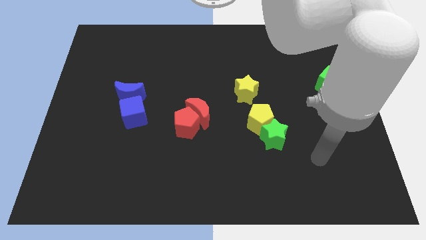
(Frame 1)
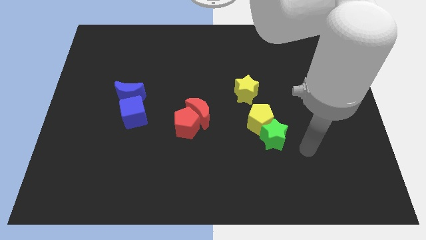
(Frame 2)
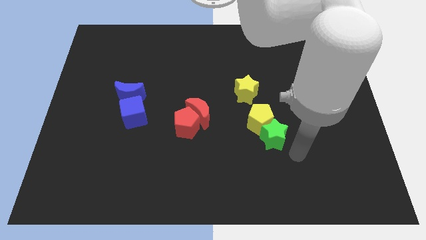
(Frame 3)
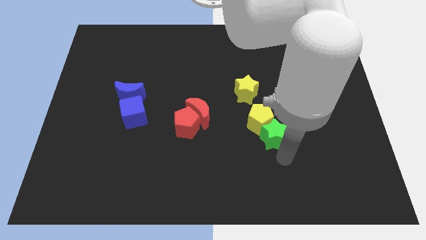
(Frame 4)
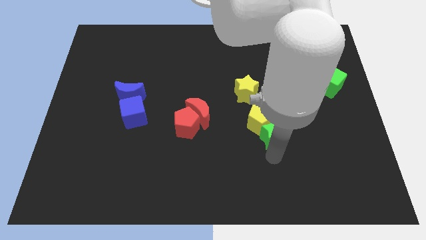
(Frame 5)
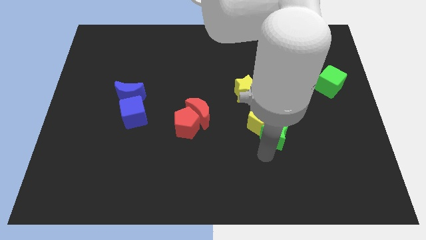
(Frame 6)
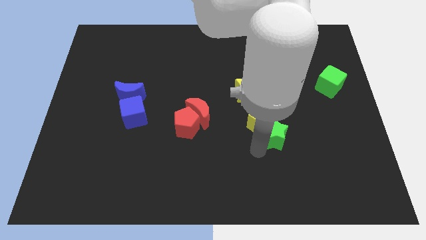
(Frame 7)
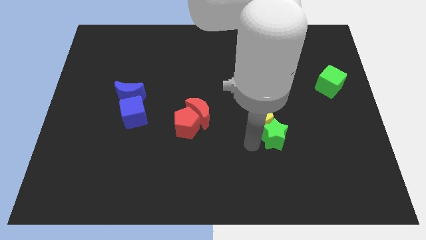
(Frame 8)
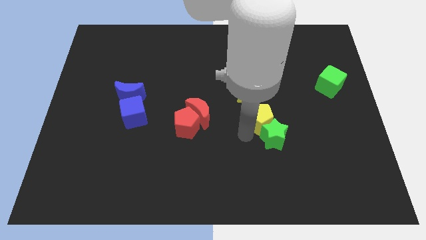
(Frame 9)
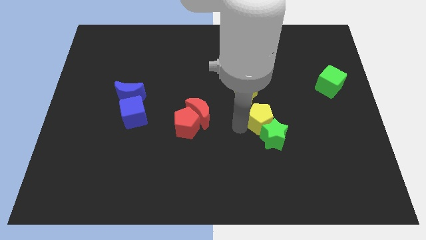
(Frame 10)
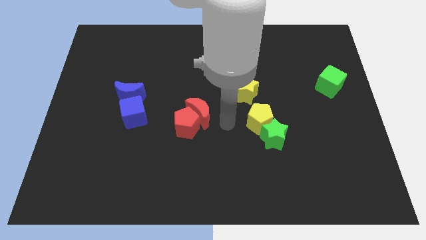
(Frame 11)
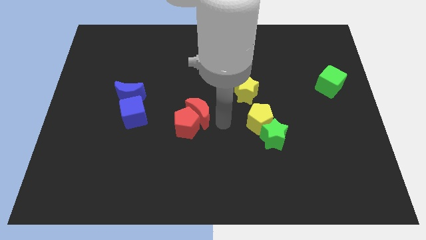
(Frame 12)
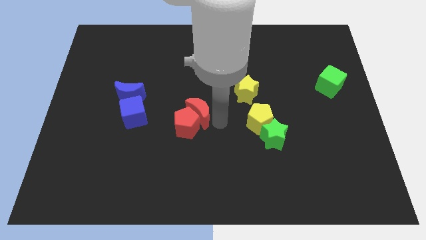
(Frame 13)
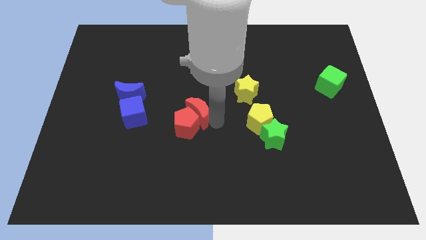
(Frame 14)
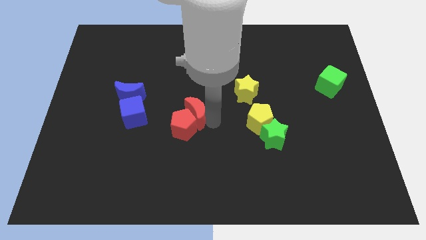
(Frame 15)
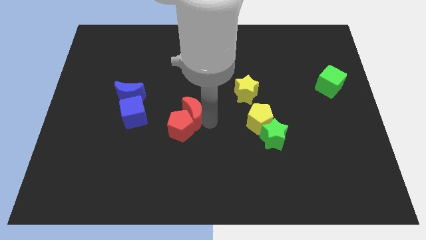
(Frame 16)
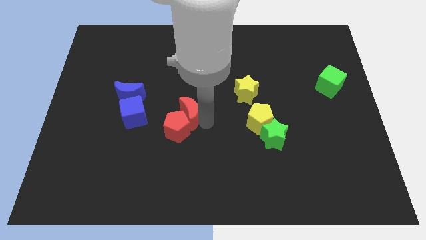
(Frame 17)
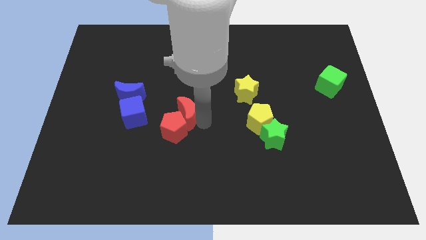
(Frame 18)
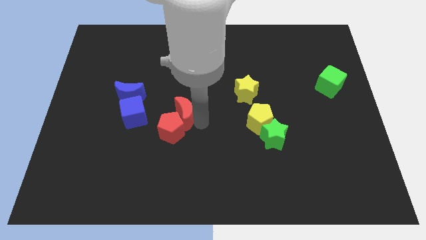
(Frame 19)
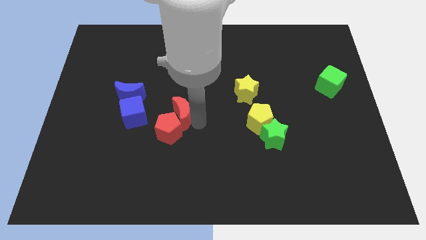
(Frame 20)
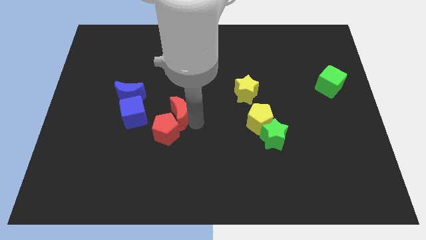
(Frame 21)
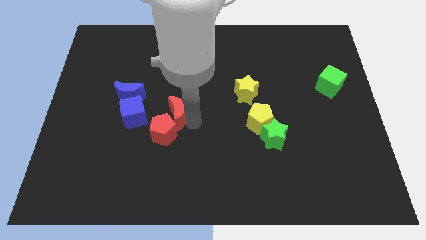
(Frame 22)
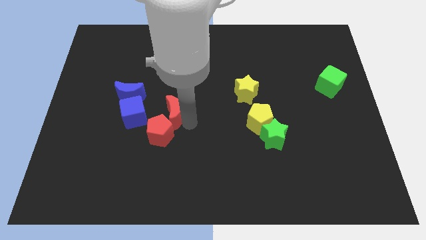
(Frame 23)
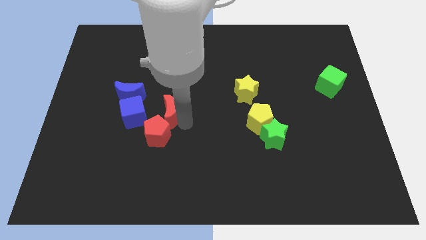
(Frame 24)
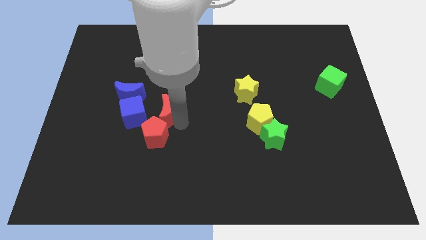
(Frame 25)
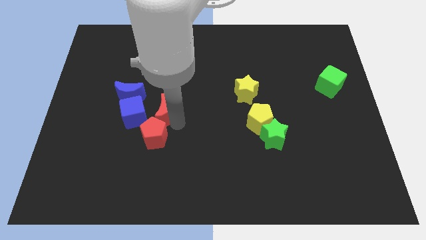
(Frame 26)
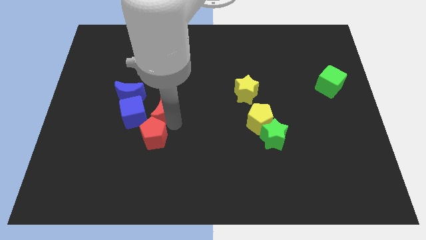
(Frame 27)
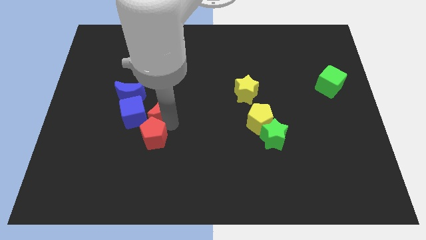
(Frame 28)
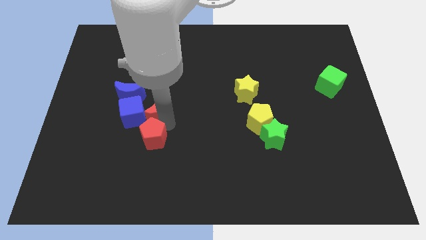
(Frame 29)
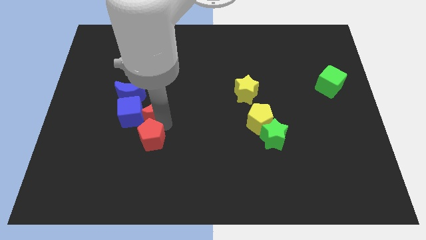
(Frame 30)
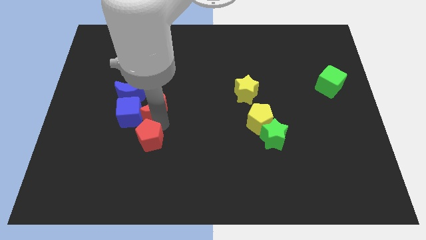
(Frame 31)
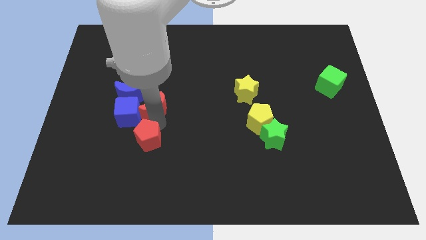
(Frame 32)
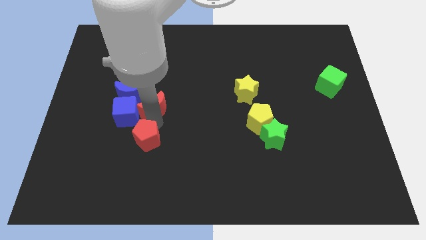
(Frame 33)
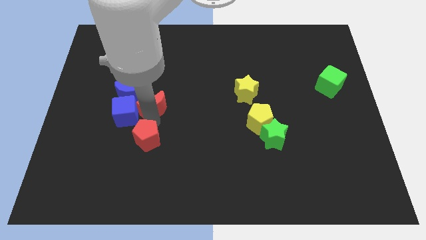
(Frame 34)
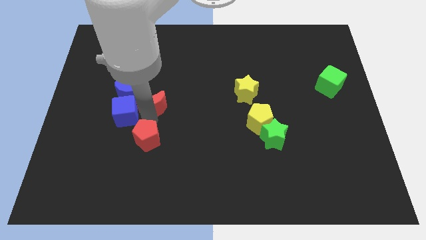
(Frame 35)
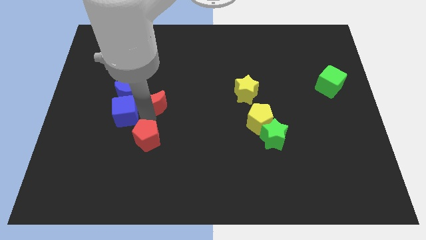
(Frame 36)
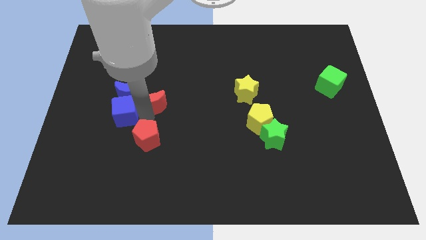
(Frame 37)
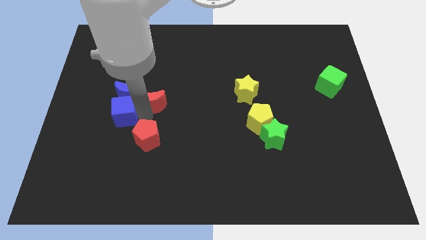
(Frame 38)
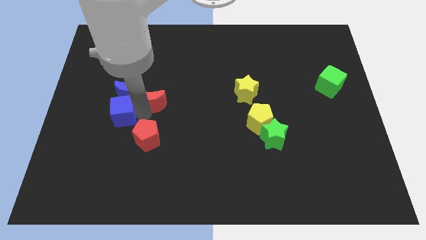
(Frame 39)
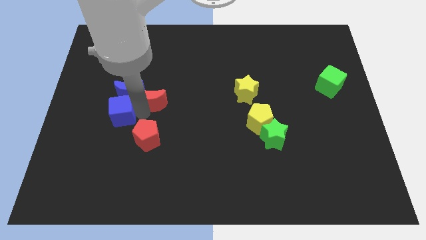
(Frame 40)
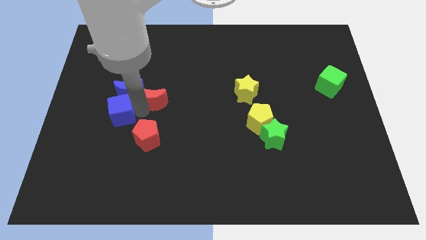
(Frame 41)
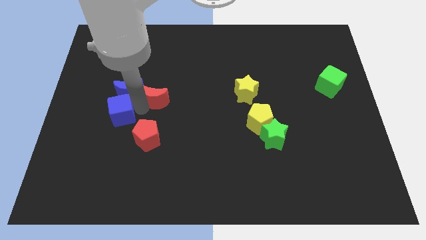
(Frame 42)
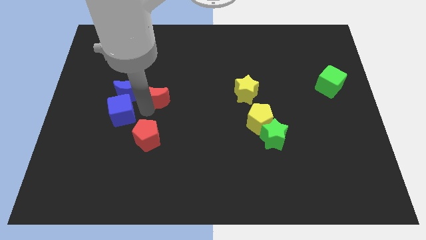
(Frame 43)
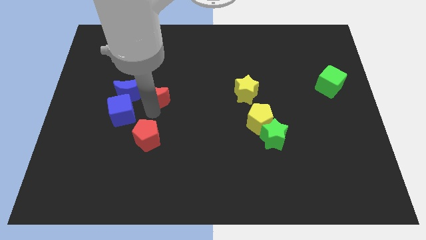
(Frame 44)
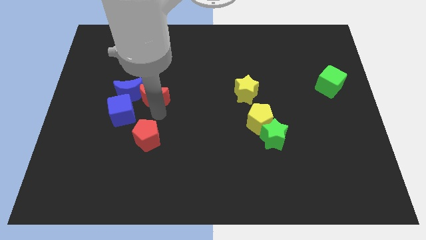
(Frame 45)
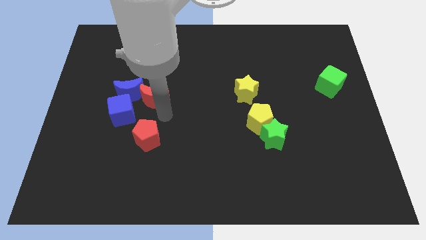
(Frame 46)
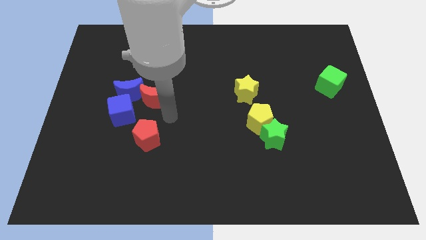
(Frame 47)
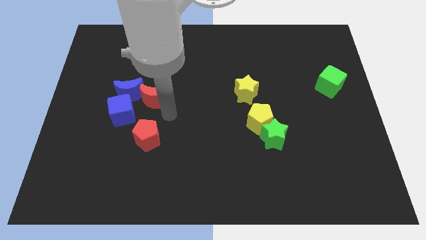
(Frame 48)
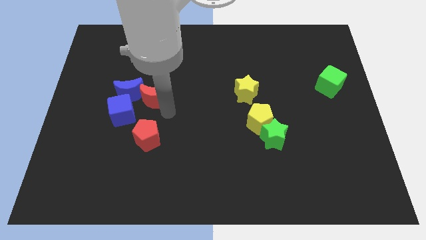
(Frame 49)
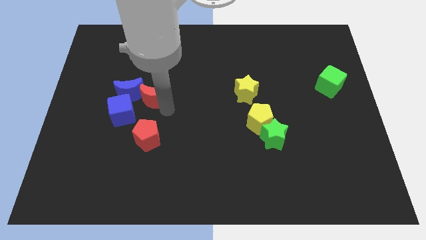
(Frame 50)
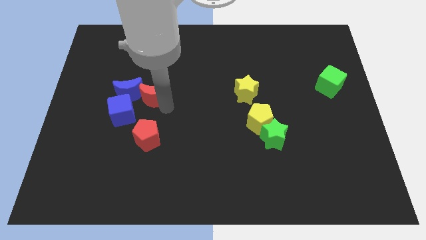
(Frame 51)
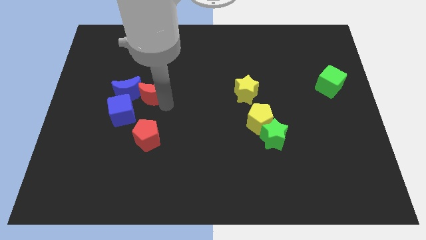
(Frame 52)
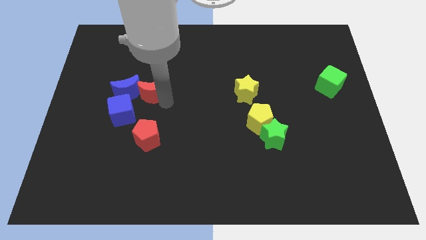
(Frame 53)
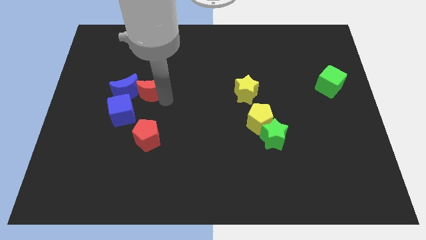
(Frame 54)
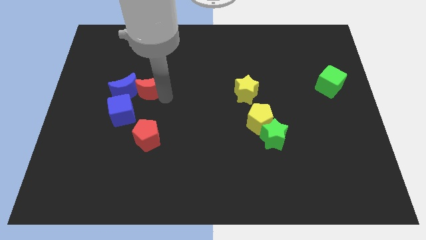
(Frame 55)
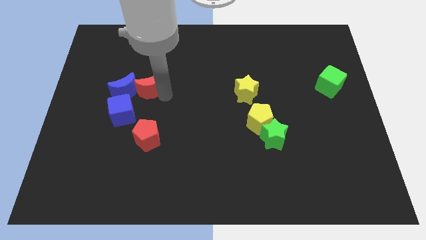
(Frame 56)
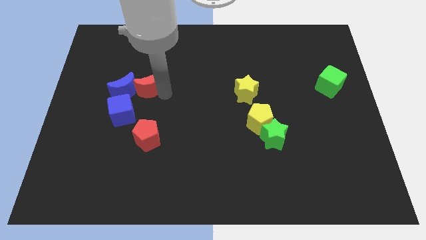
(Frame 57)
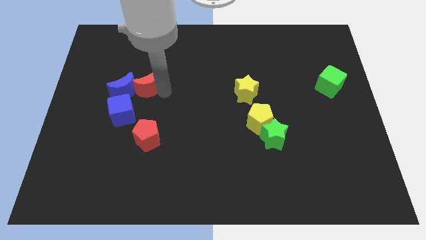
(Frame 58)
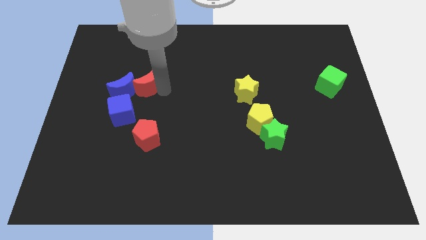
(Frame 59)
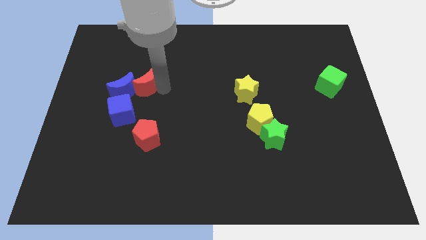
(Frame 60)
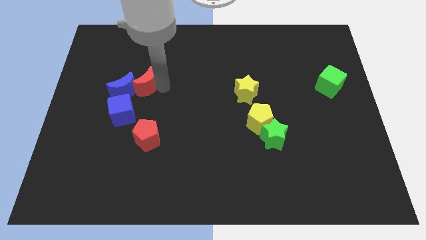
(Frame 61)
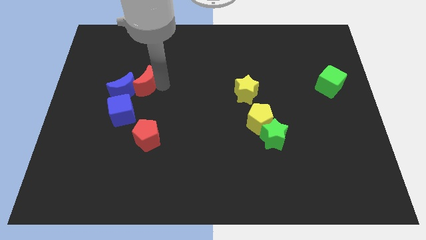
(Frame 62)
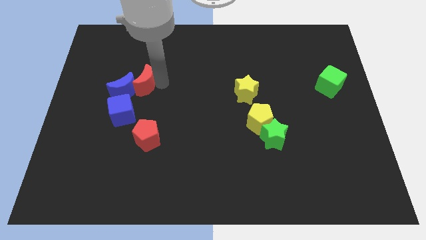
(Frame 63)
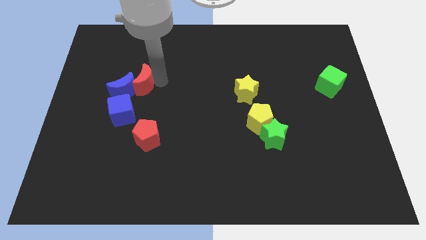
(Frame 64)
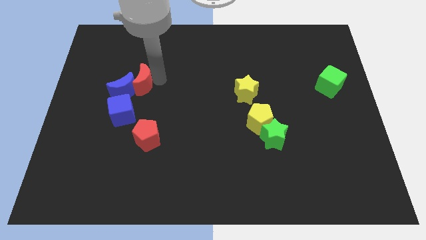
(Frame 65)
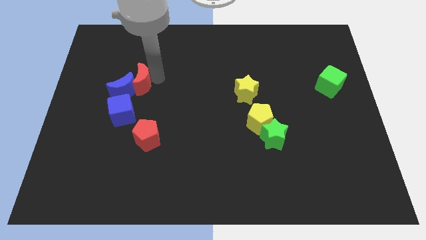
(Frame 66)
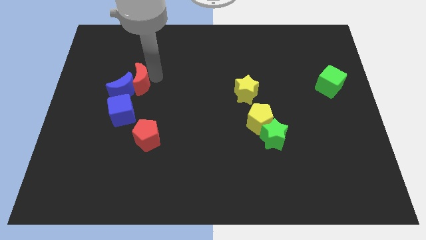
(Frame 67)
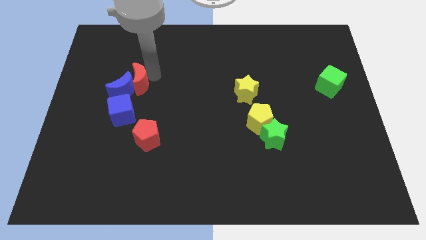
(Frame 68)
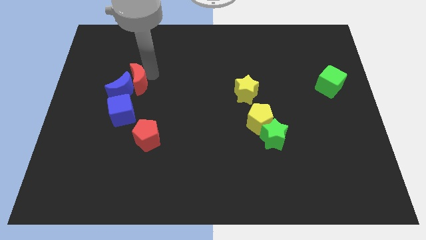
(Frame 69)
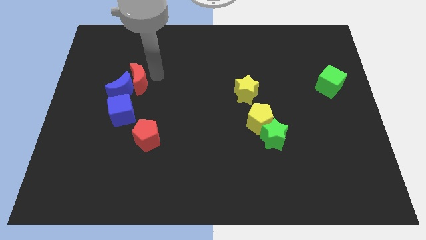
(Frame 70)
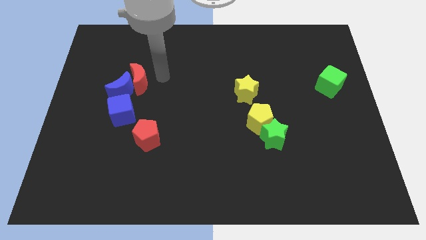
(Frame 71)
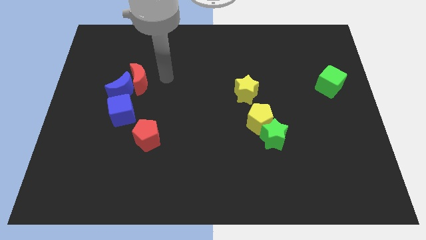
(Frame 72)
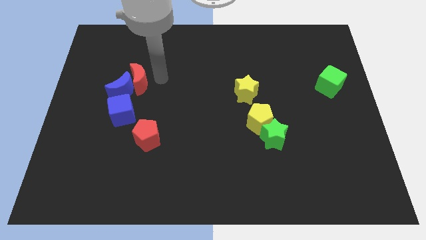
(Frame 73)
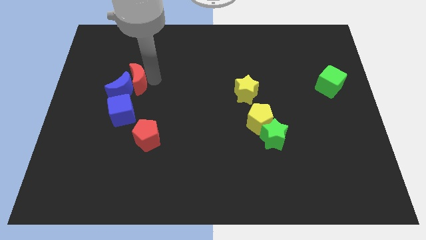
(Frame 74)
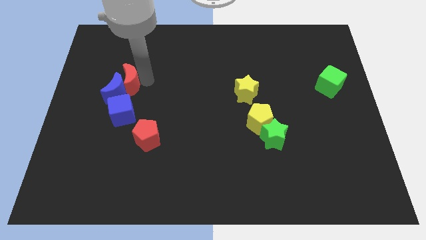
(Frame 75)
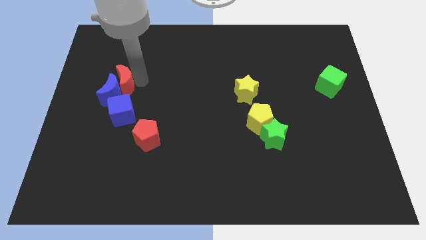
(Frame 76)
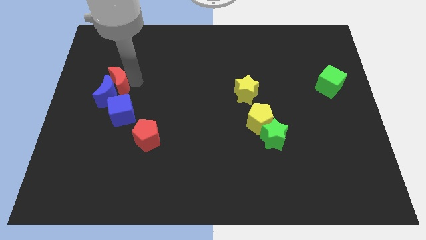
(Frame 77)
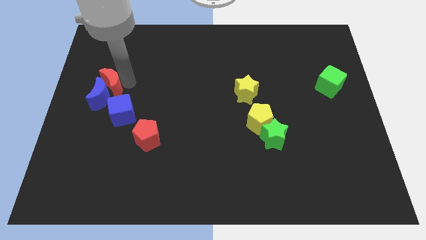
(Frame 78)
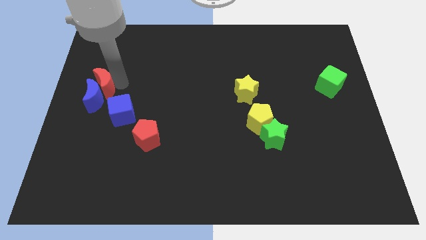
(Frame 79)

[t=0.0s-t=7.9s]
slide the red moon to the center left
